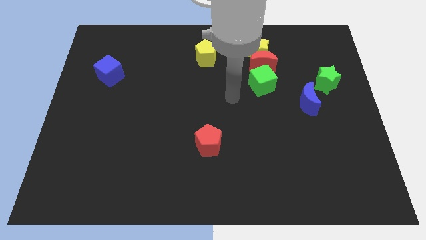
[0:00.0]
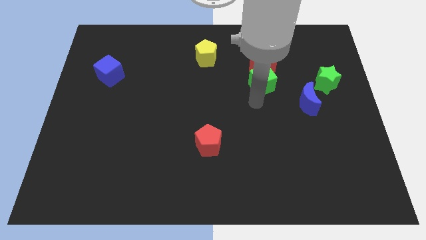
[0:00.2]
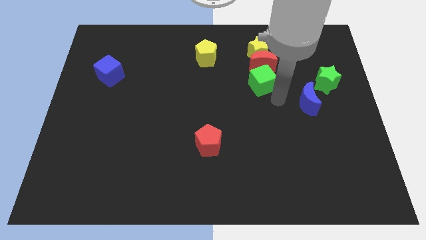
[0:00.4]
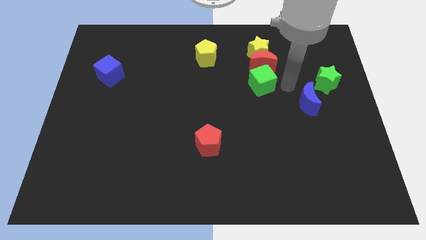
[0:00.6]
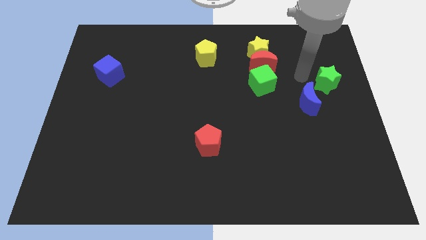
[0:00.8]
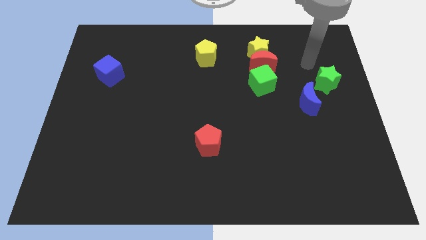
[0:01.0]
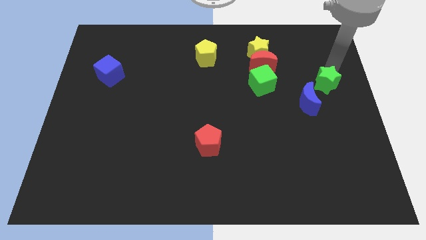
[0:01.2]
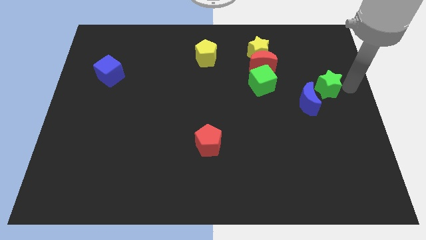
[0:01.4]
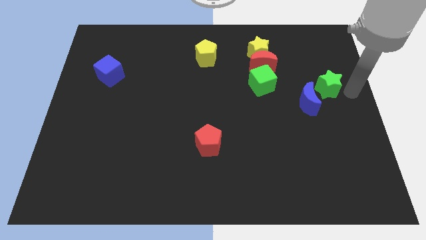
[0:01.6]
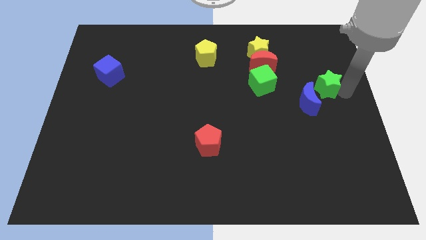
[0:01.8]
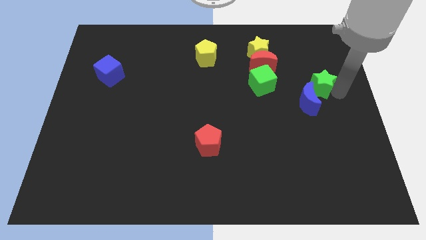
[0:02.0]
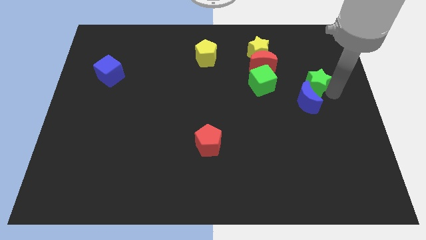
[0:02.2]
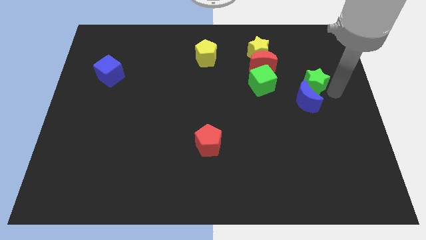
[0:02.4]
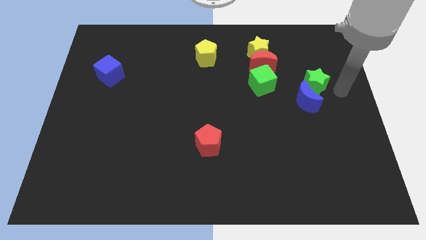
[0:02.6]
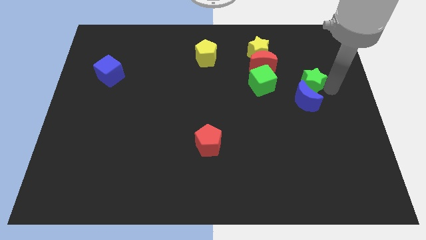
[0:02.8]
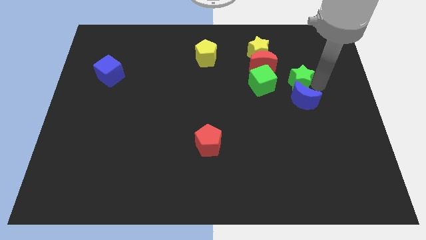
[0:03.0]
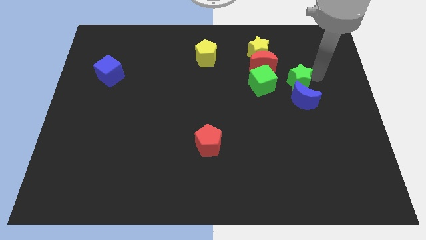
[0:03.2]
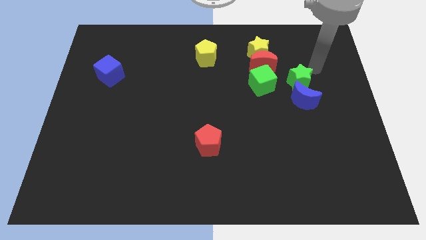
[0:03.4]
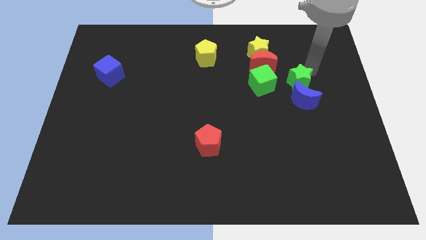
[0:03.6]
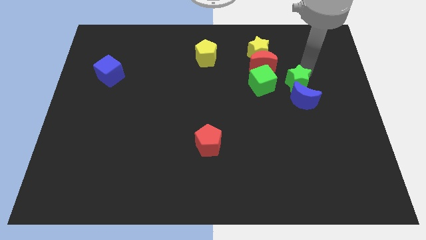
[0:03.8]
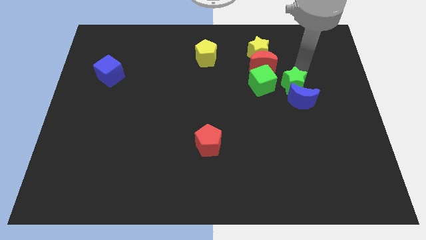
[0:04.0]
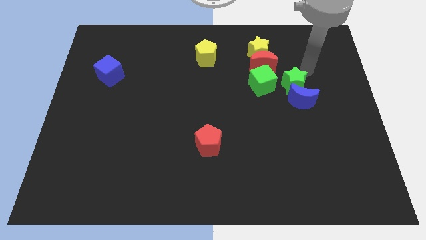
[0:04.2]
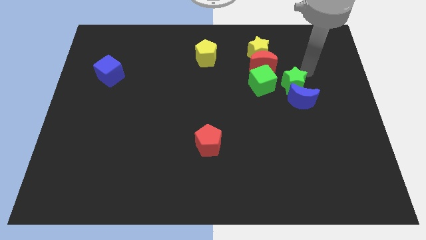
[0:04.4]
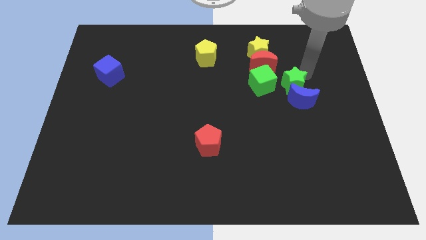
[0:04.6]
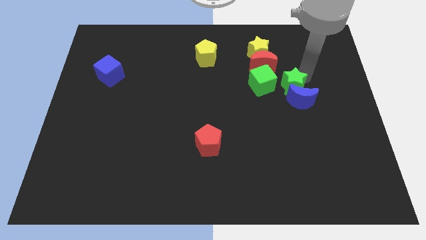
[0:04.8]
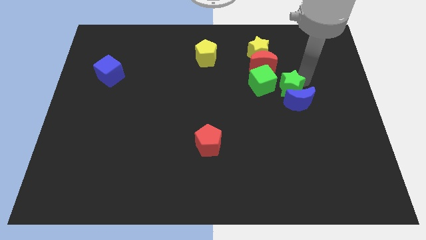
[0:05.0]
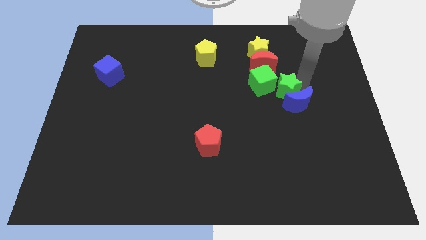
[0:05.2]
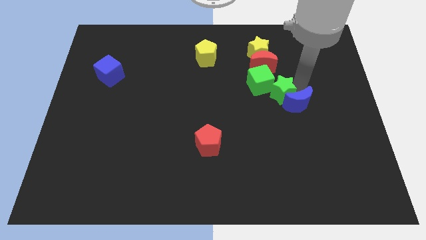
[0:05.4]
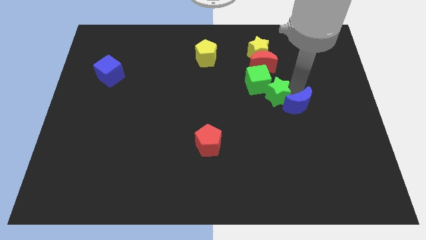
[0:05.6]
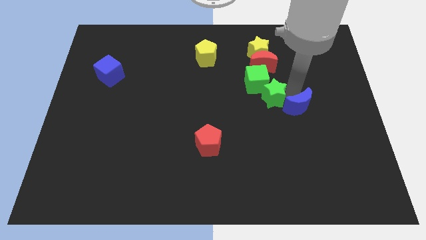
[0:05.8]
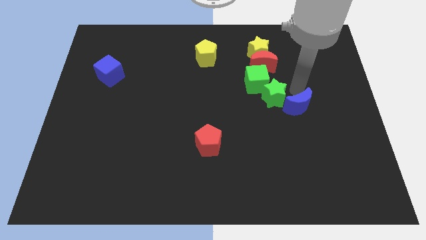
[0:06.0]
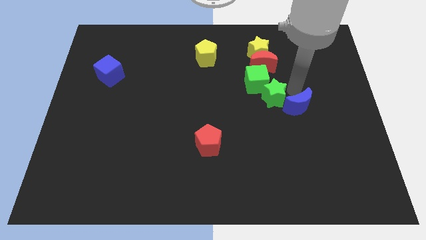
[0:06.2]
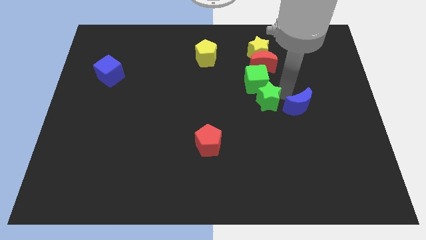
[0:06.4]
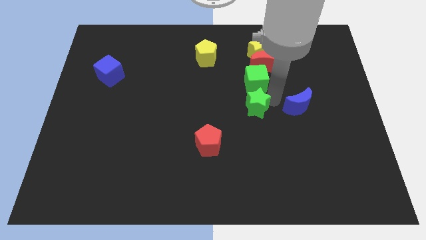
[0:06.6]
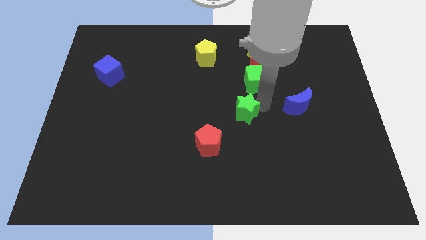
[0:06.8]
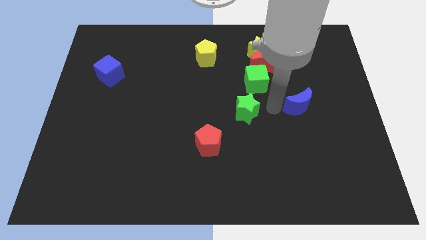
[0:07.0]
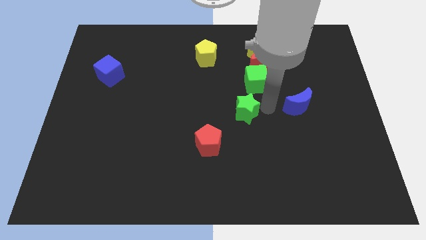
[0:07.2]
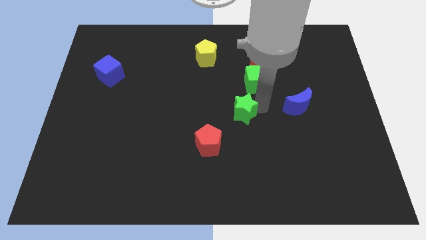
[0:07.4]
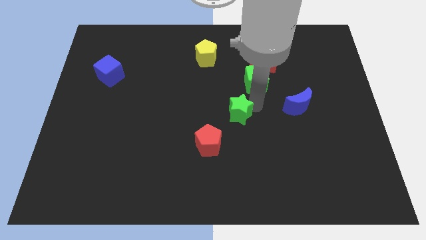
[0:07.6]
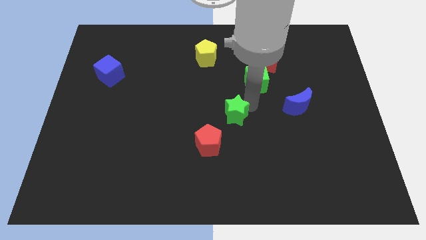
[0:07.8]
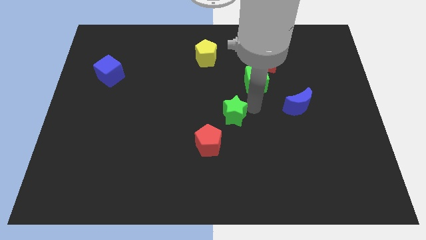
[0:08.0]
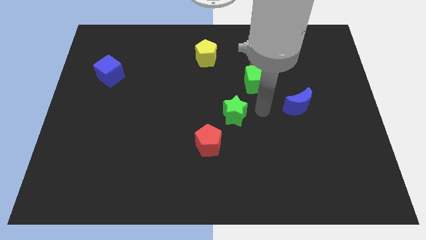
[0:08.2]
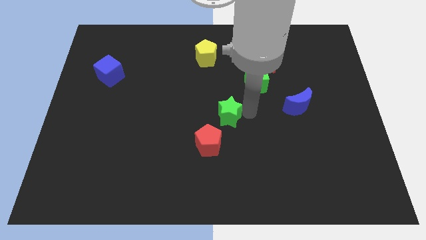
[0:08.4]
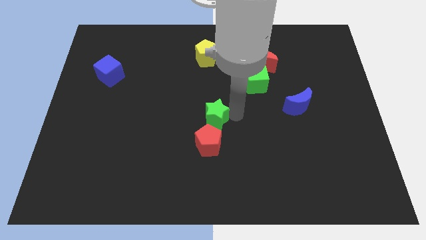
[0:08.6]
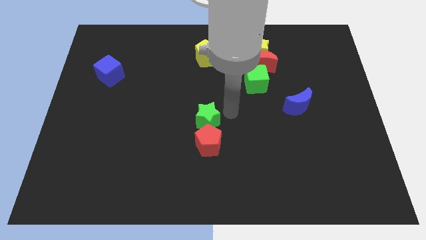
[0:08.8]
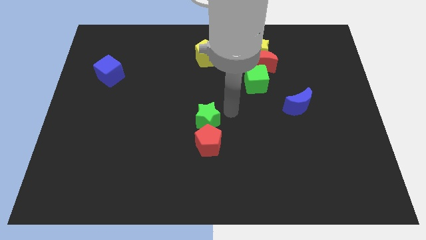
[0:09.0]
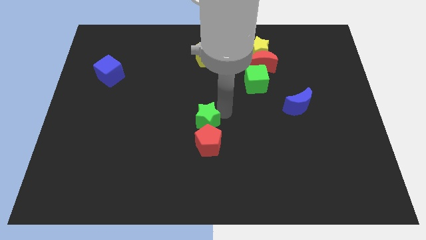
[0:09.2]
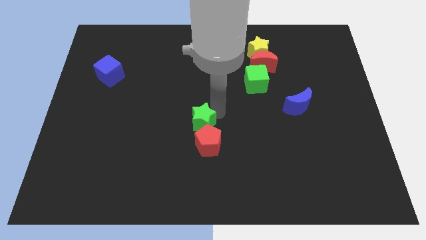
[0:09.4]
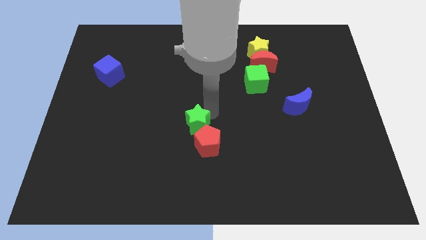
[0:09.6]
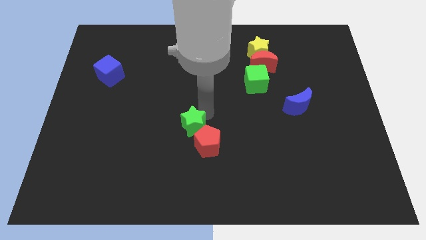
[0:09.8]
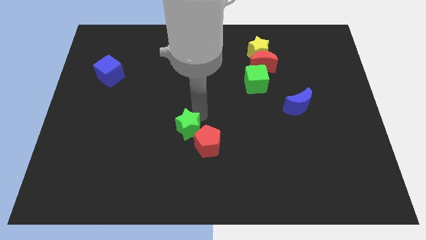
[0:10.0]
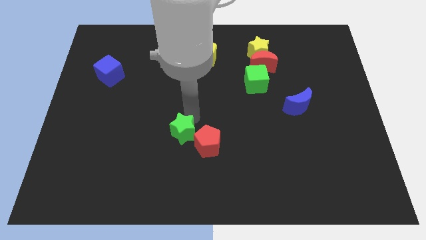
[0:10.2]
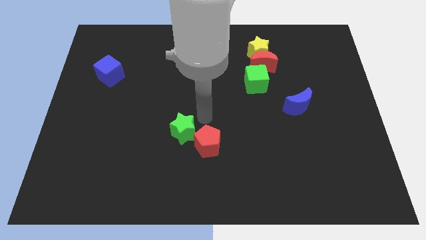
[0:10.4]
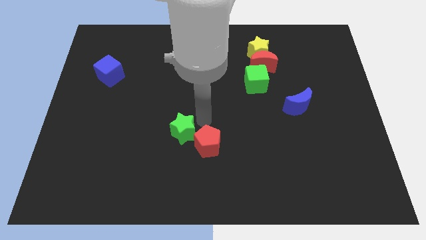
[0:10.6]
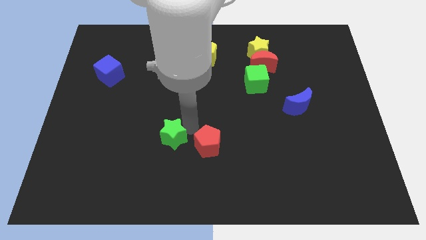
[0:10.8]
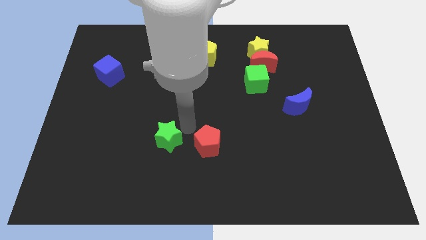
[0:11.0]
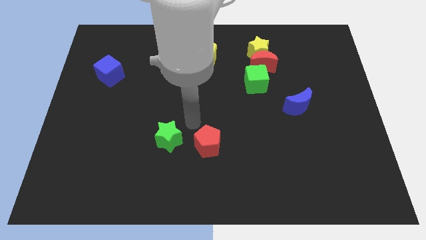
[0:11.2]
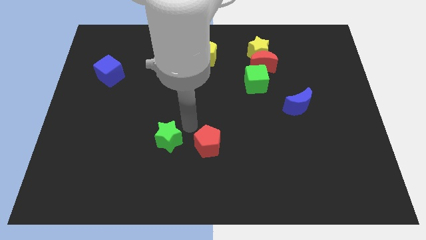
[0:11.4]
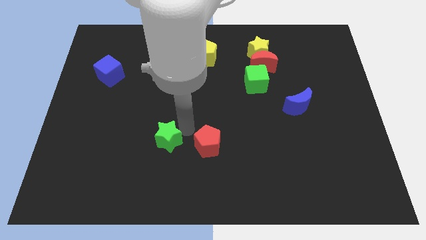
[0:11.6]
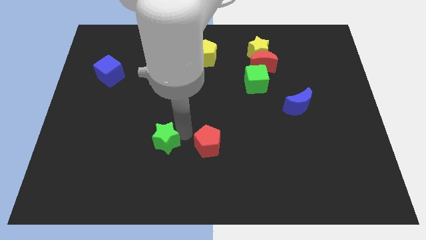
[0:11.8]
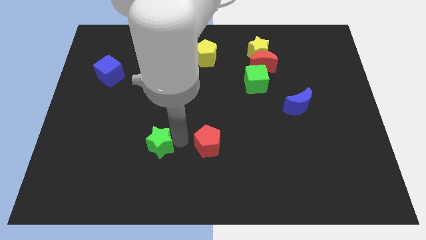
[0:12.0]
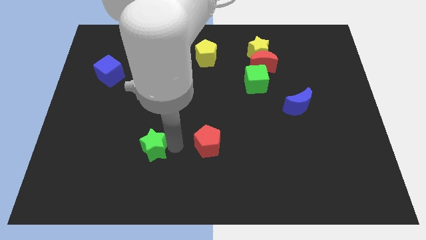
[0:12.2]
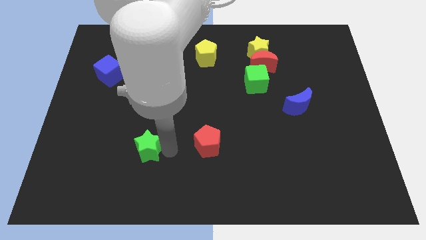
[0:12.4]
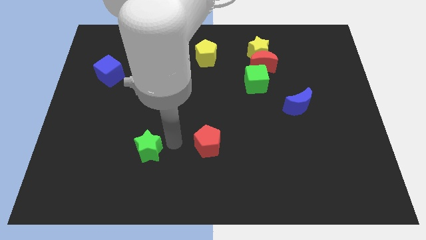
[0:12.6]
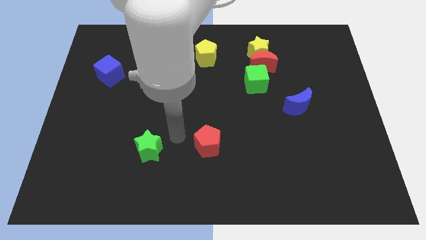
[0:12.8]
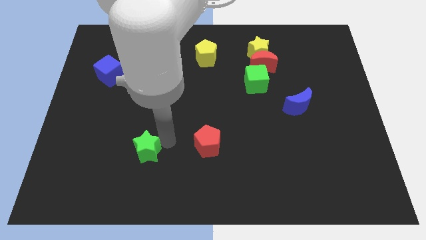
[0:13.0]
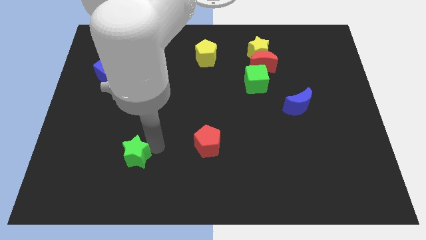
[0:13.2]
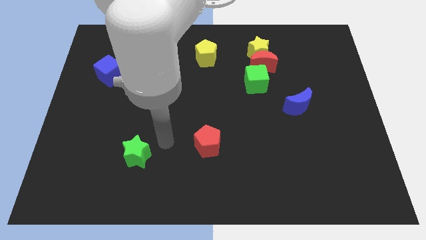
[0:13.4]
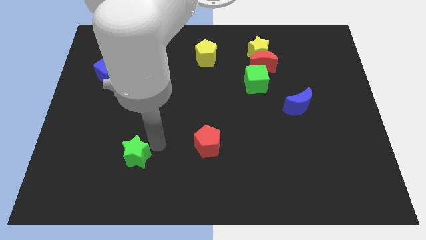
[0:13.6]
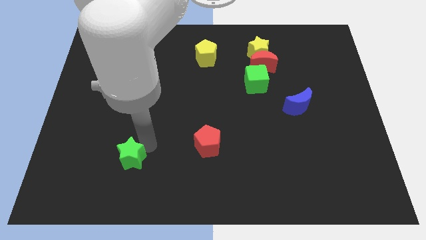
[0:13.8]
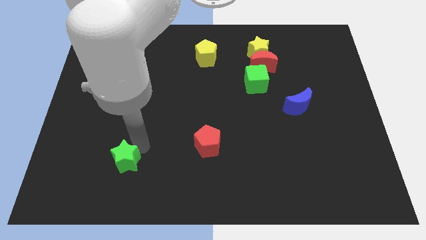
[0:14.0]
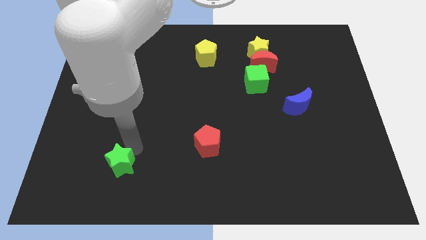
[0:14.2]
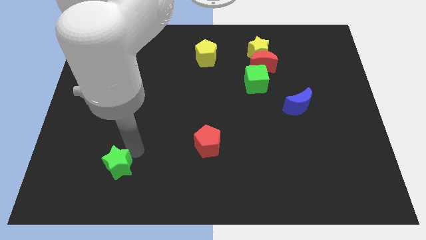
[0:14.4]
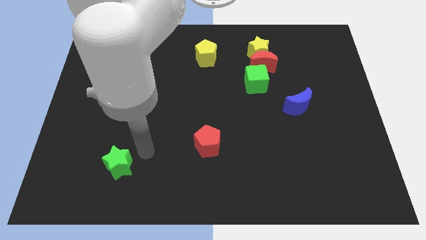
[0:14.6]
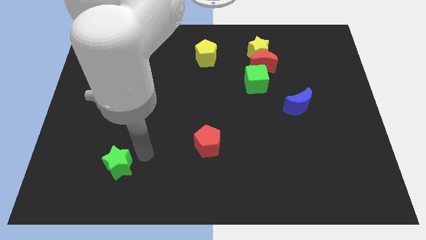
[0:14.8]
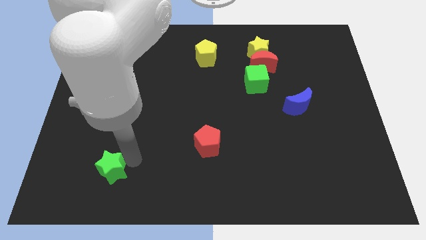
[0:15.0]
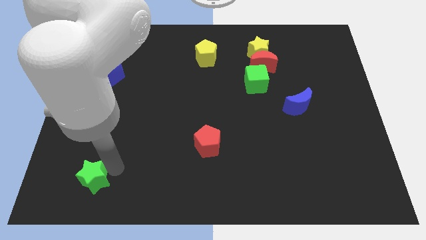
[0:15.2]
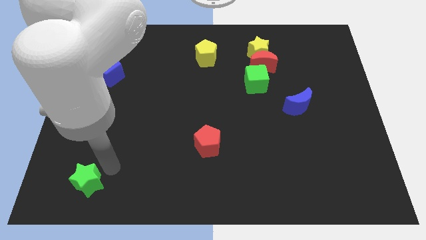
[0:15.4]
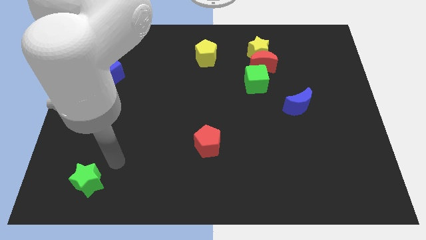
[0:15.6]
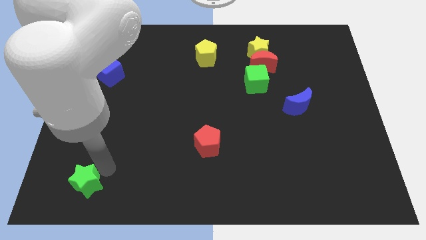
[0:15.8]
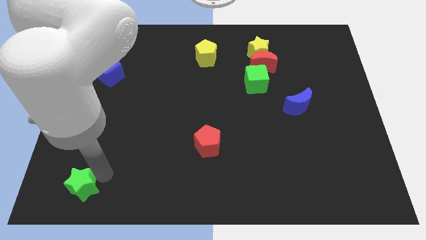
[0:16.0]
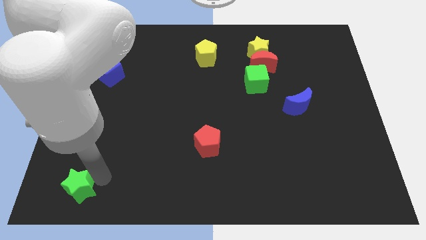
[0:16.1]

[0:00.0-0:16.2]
slide the green star to the bottom left of the board
